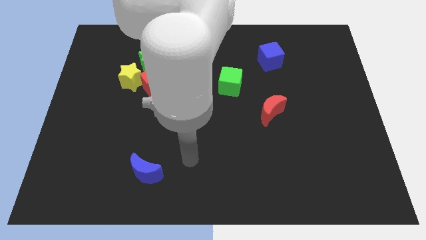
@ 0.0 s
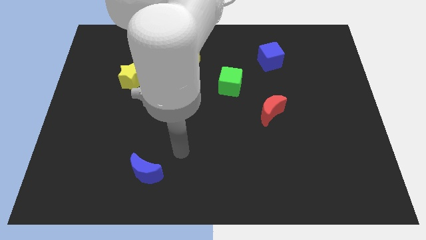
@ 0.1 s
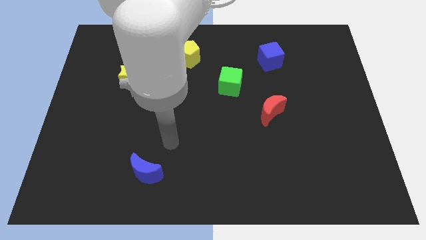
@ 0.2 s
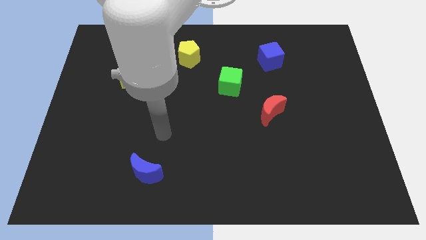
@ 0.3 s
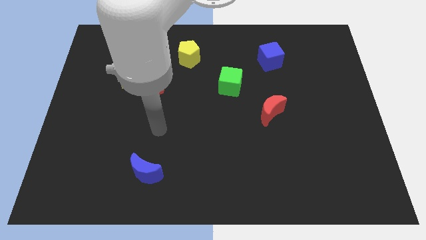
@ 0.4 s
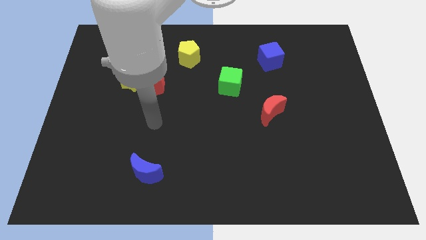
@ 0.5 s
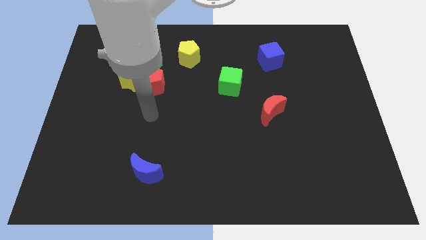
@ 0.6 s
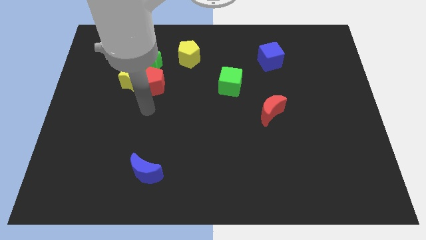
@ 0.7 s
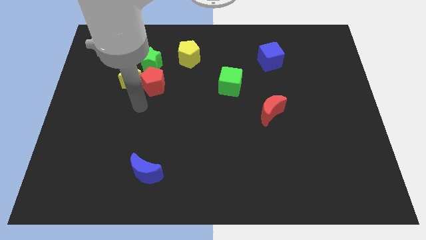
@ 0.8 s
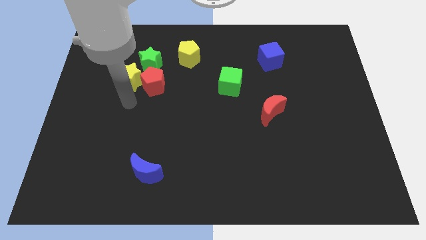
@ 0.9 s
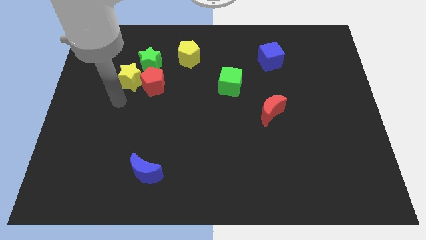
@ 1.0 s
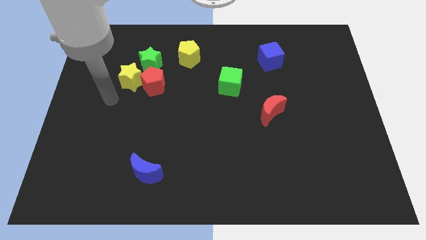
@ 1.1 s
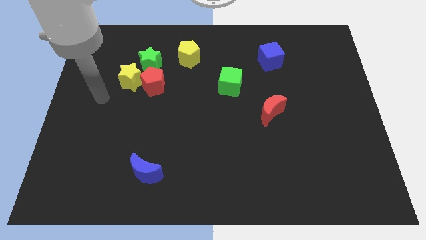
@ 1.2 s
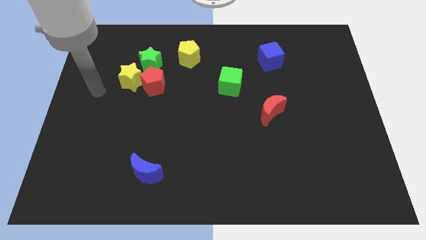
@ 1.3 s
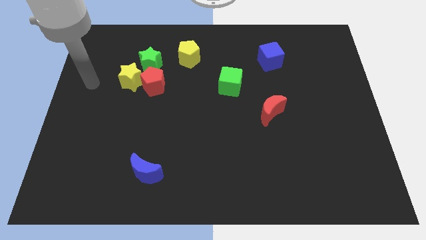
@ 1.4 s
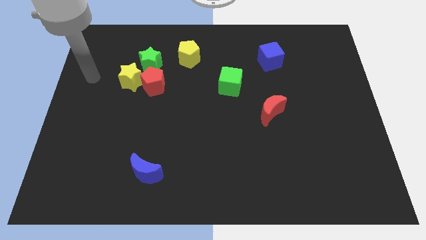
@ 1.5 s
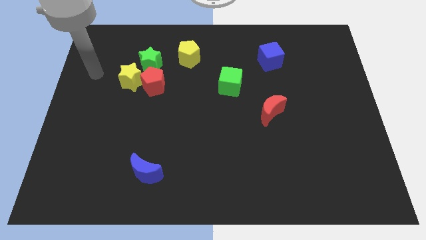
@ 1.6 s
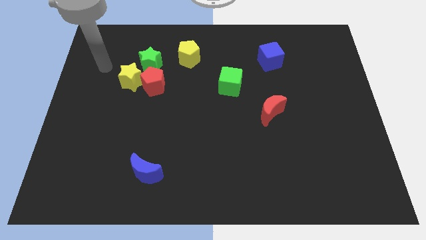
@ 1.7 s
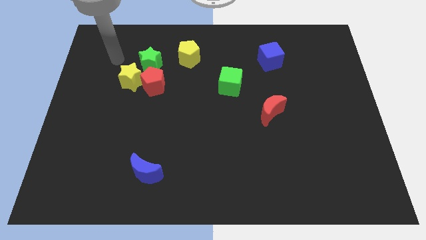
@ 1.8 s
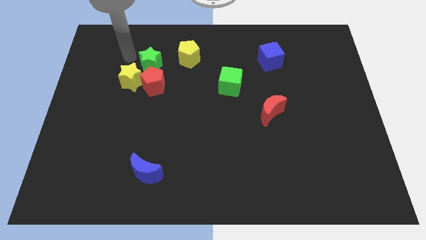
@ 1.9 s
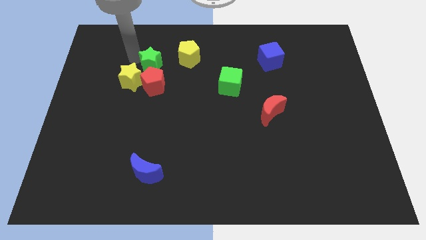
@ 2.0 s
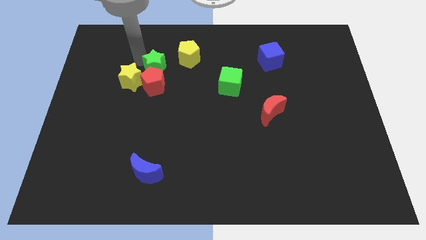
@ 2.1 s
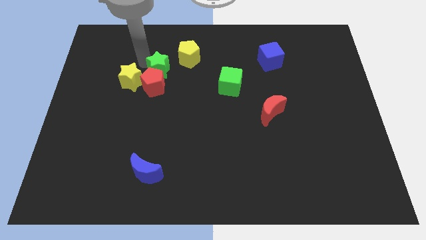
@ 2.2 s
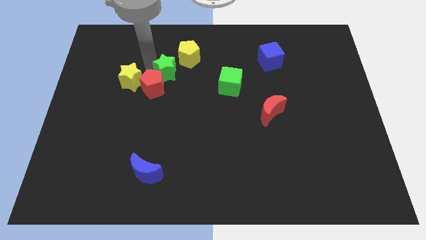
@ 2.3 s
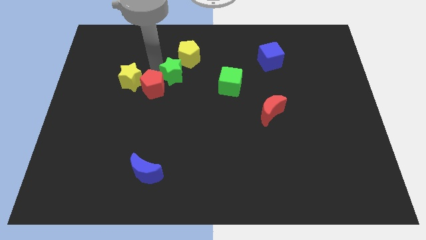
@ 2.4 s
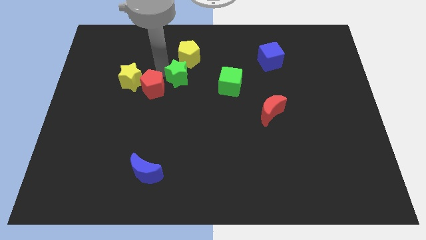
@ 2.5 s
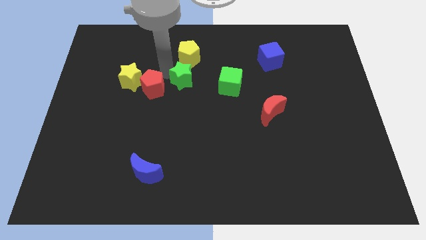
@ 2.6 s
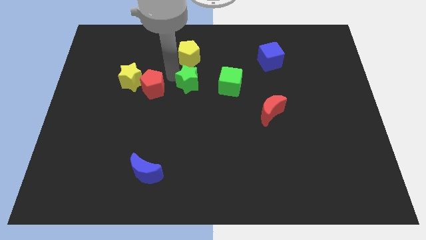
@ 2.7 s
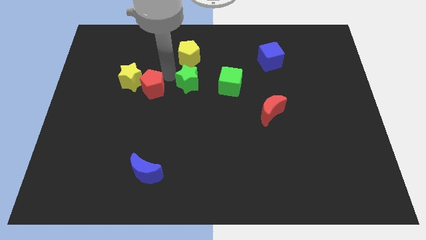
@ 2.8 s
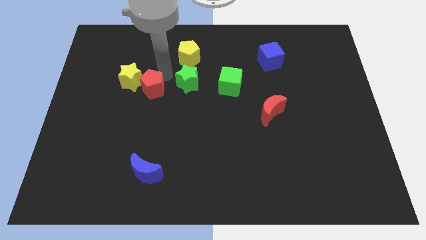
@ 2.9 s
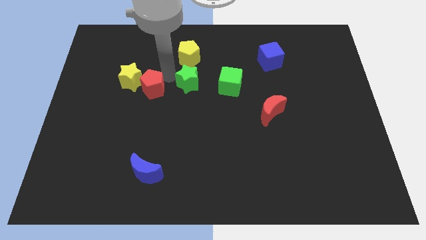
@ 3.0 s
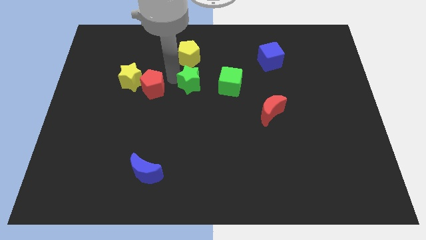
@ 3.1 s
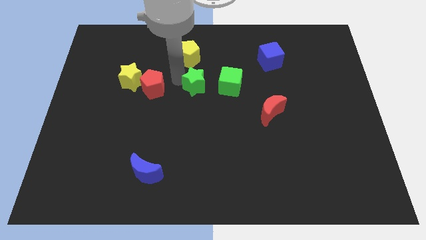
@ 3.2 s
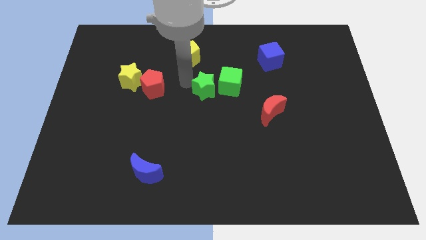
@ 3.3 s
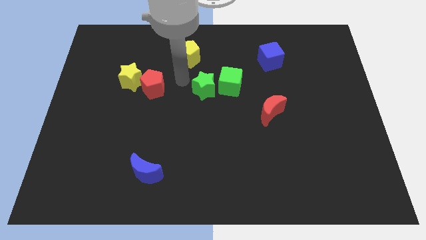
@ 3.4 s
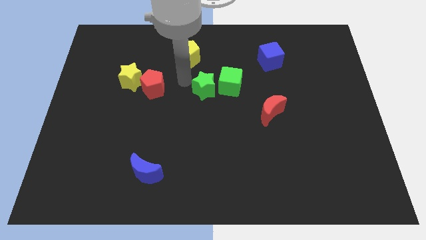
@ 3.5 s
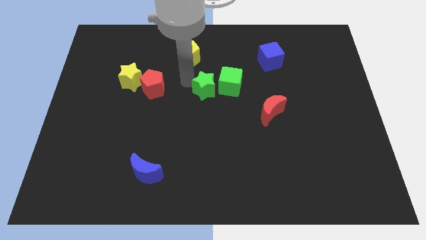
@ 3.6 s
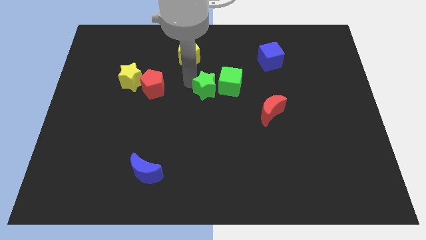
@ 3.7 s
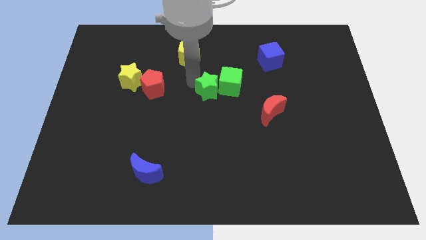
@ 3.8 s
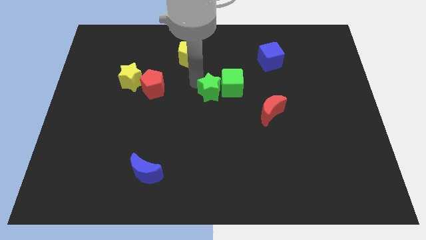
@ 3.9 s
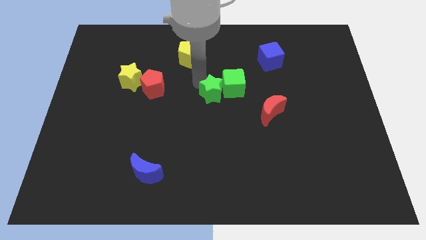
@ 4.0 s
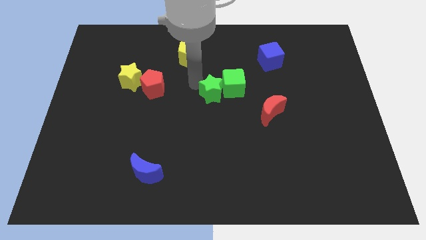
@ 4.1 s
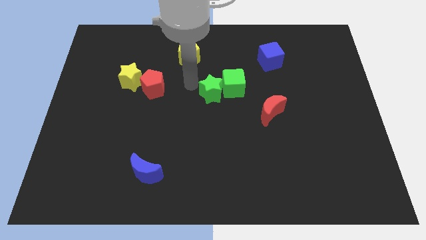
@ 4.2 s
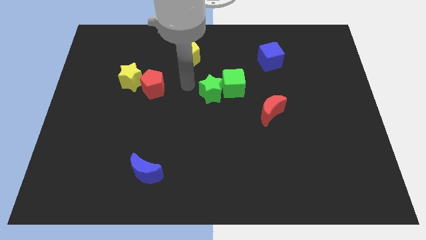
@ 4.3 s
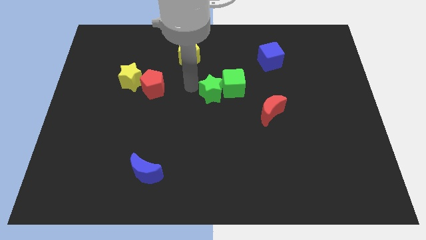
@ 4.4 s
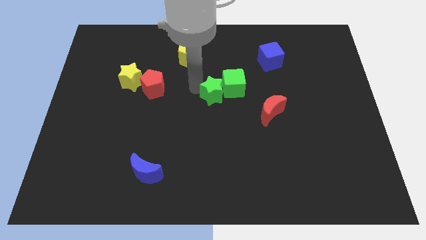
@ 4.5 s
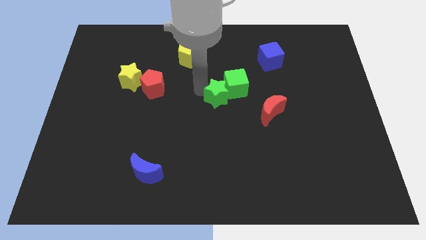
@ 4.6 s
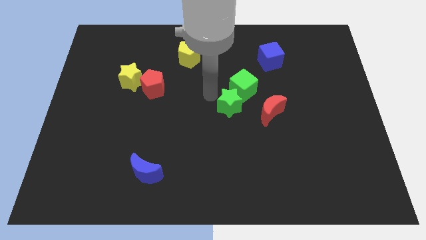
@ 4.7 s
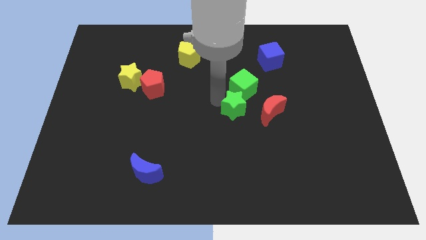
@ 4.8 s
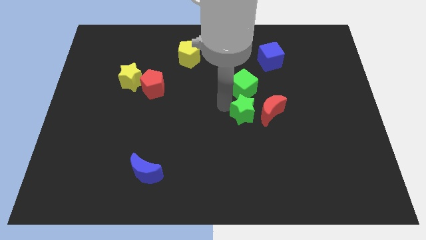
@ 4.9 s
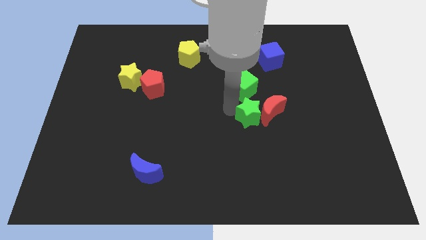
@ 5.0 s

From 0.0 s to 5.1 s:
slide the green star to the red moon

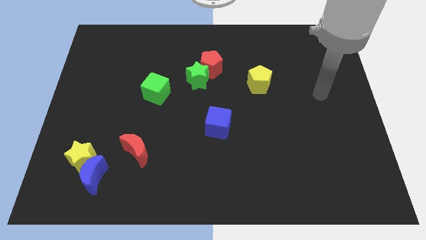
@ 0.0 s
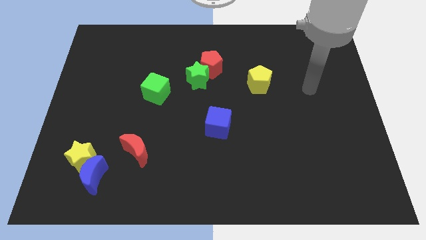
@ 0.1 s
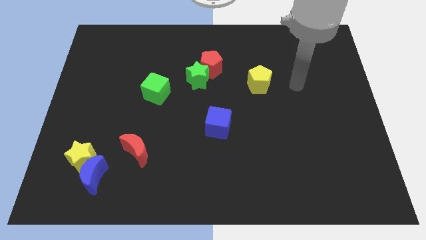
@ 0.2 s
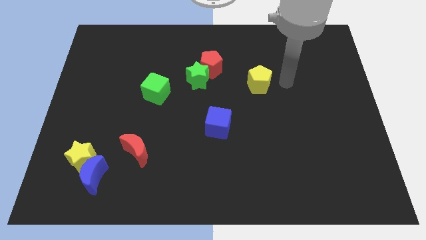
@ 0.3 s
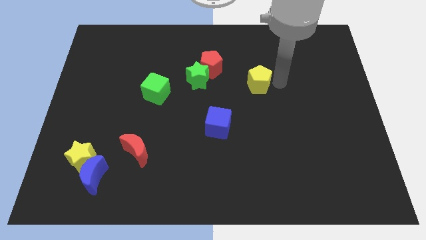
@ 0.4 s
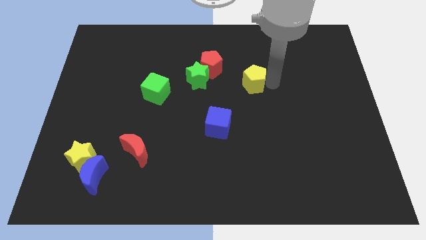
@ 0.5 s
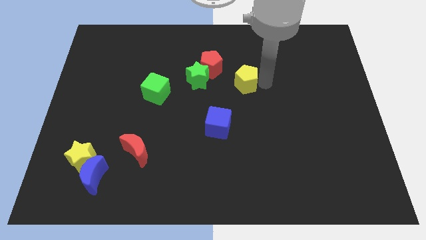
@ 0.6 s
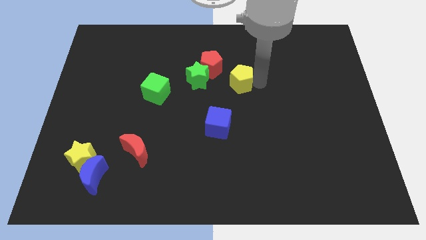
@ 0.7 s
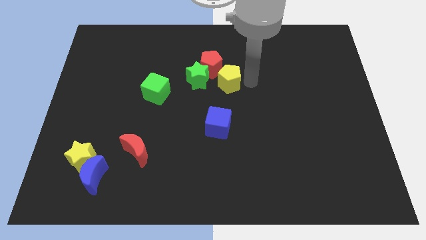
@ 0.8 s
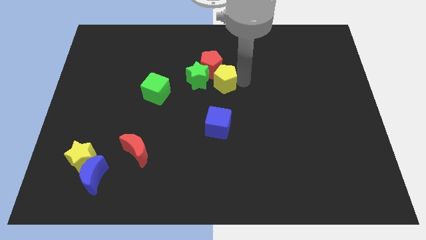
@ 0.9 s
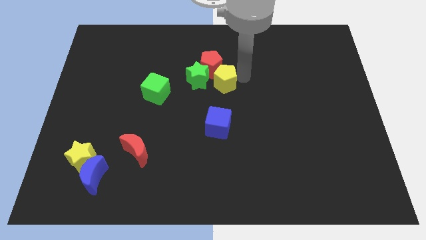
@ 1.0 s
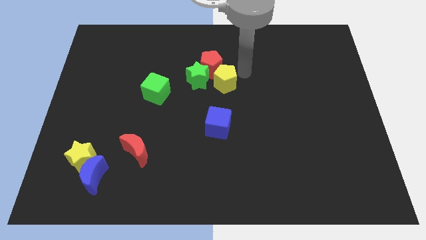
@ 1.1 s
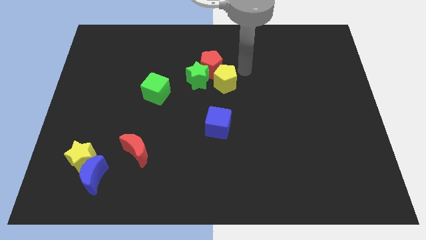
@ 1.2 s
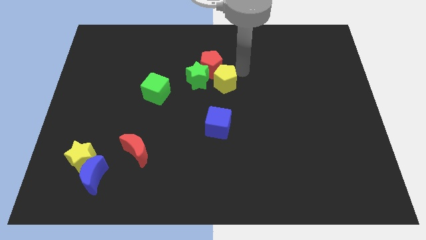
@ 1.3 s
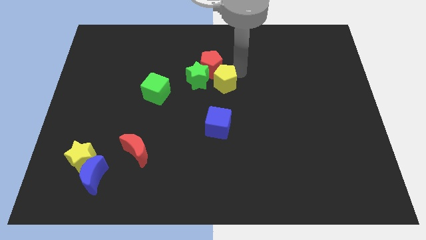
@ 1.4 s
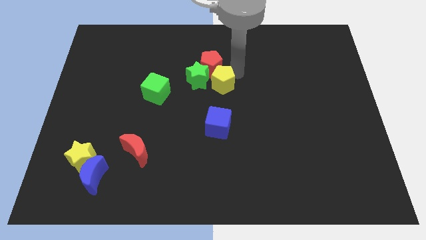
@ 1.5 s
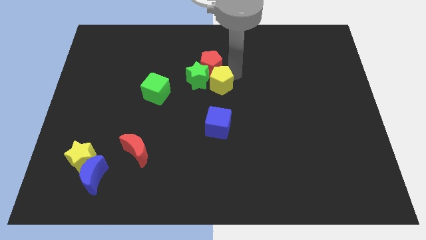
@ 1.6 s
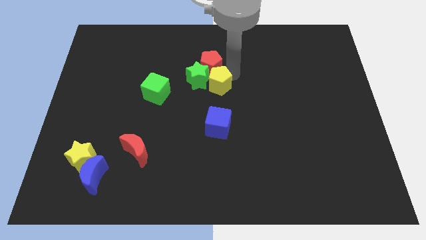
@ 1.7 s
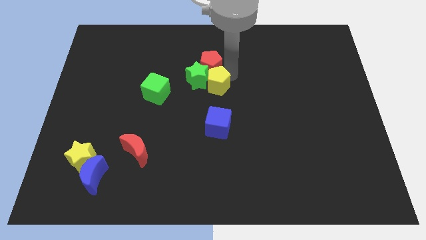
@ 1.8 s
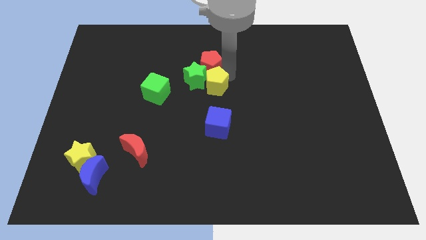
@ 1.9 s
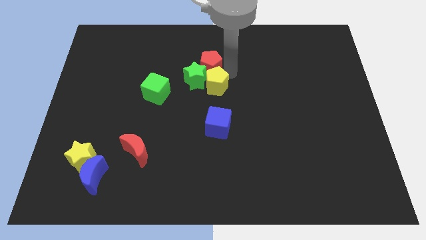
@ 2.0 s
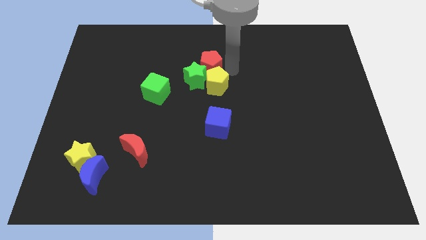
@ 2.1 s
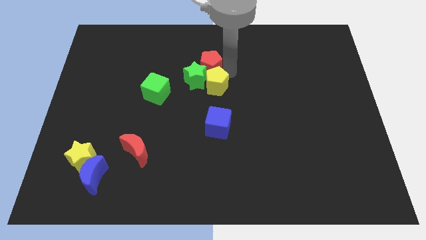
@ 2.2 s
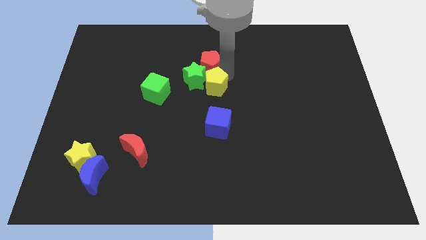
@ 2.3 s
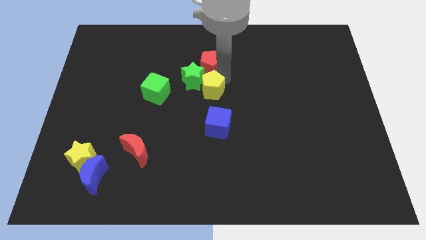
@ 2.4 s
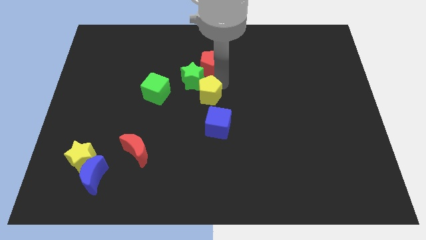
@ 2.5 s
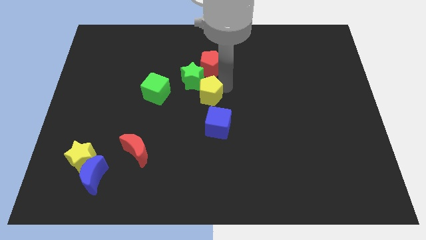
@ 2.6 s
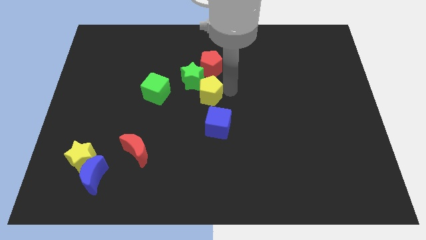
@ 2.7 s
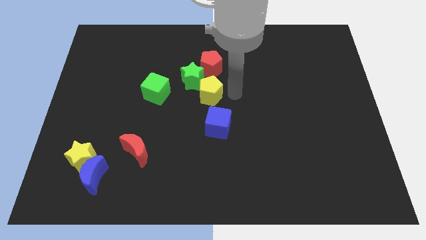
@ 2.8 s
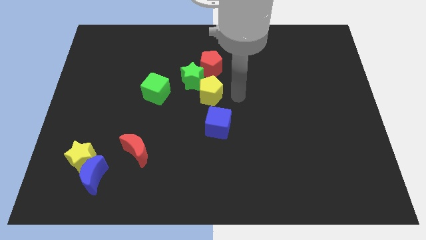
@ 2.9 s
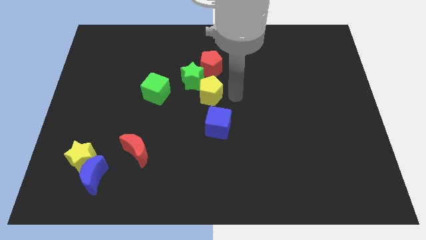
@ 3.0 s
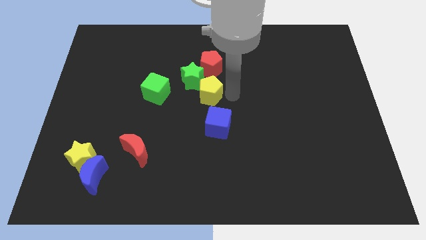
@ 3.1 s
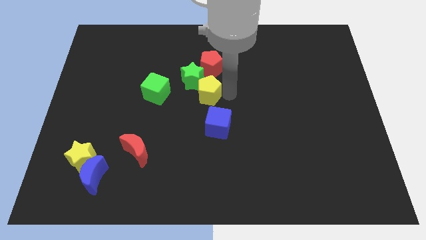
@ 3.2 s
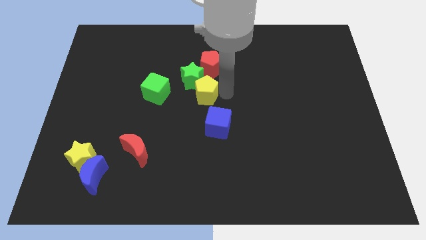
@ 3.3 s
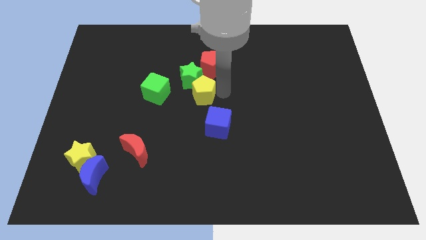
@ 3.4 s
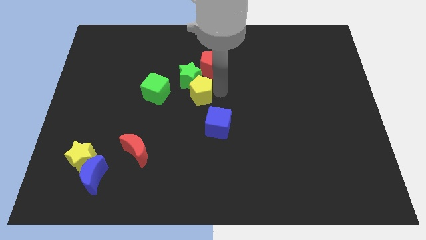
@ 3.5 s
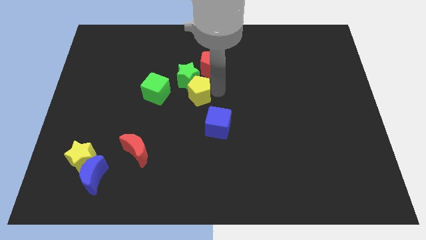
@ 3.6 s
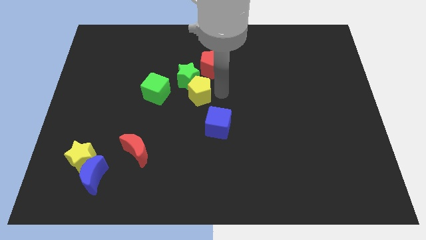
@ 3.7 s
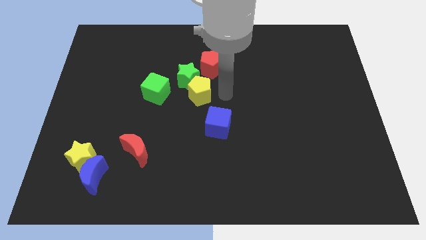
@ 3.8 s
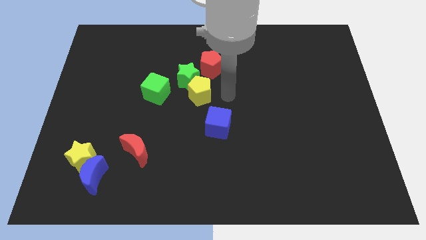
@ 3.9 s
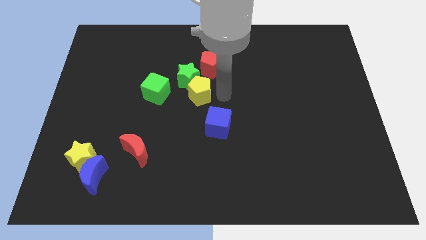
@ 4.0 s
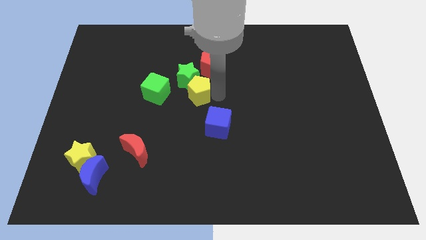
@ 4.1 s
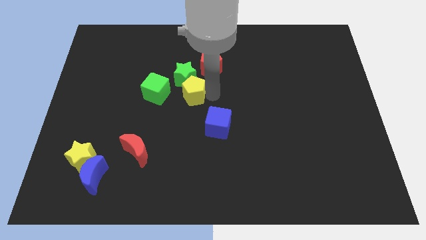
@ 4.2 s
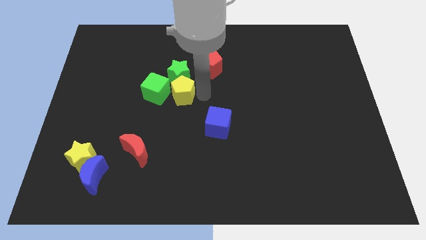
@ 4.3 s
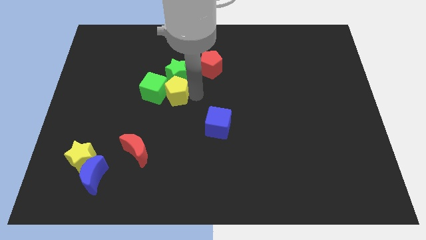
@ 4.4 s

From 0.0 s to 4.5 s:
push the yellow pentagon close to the green cube
